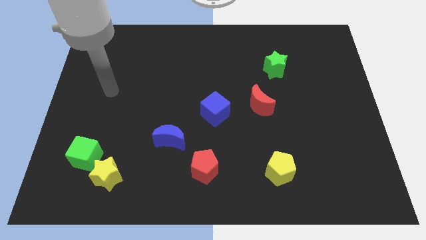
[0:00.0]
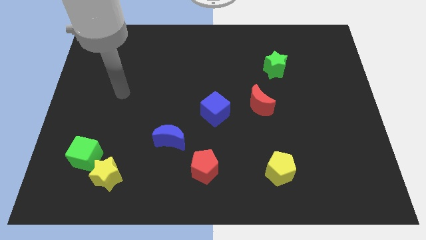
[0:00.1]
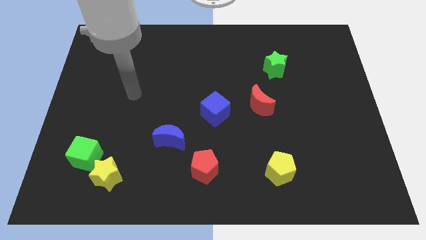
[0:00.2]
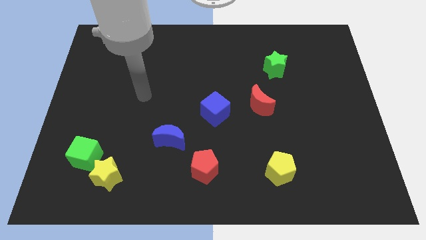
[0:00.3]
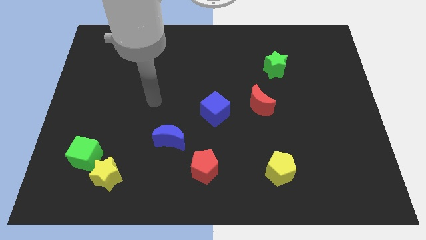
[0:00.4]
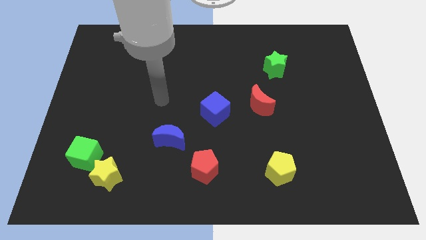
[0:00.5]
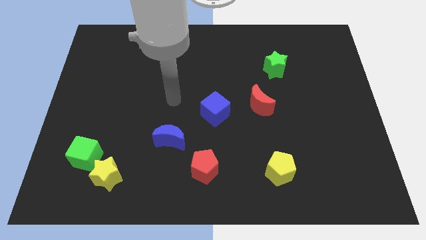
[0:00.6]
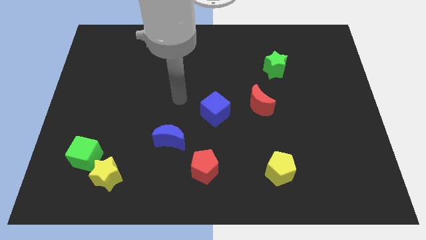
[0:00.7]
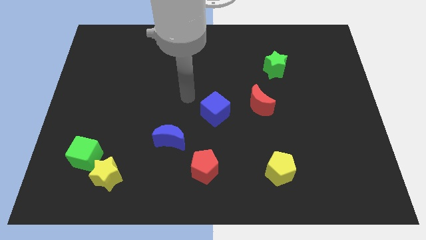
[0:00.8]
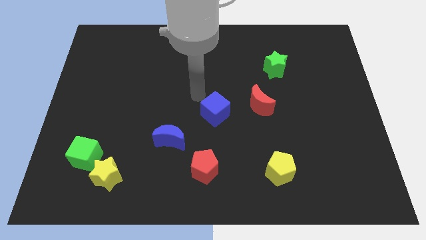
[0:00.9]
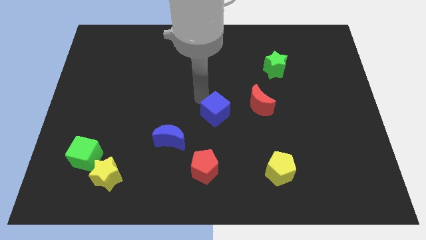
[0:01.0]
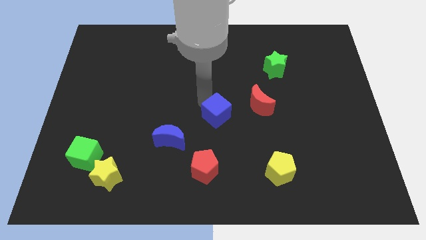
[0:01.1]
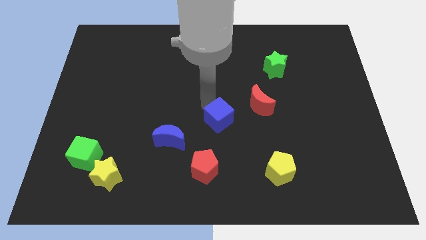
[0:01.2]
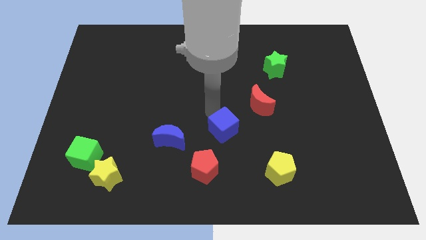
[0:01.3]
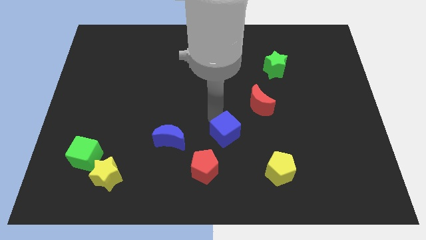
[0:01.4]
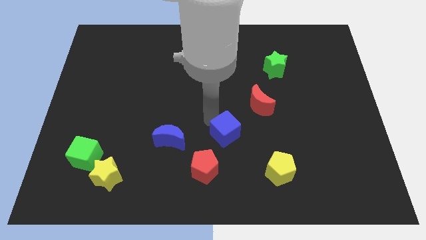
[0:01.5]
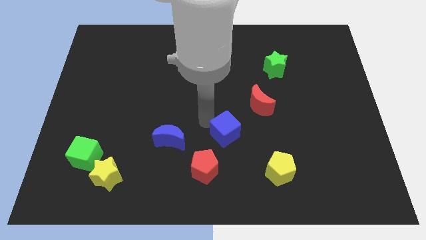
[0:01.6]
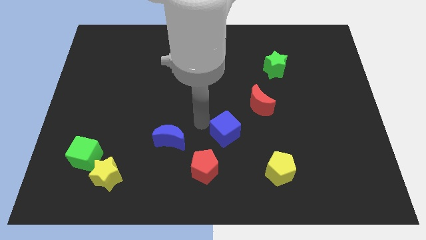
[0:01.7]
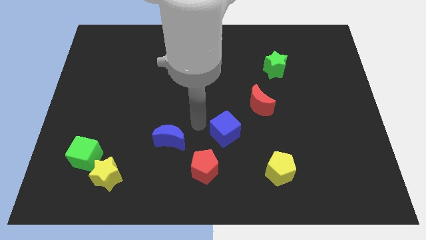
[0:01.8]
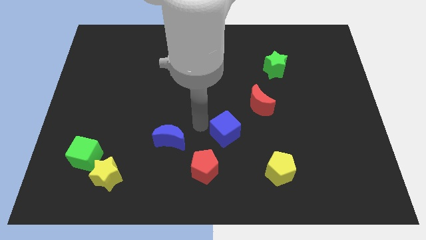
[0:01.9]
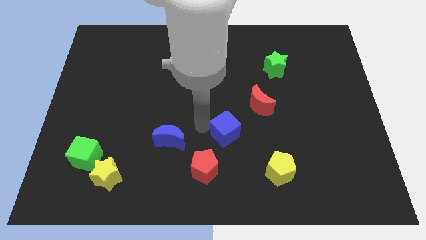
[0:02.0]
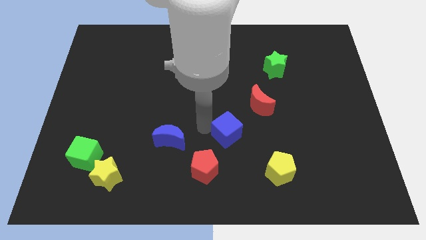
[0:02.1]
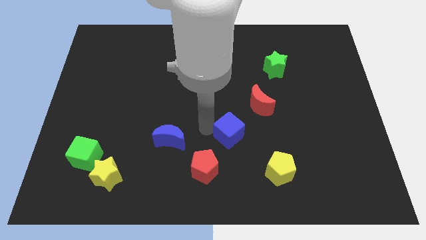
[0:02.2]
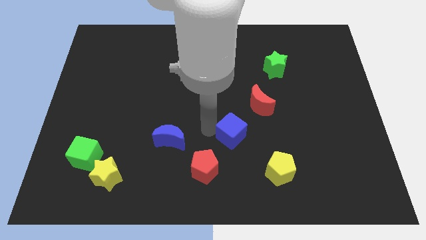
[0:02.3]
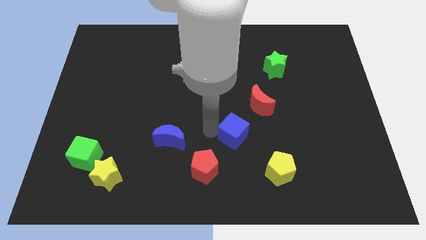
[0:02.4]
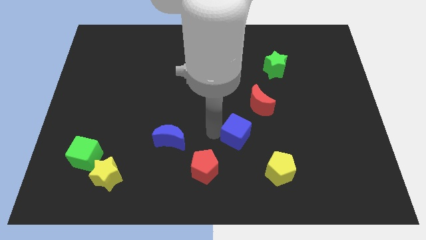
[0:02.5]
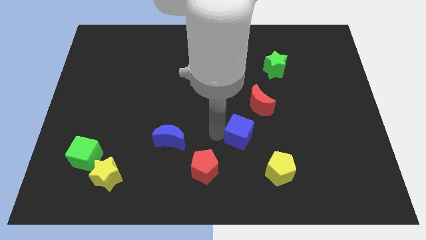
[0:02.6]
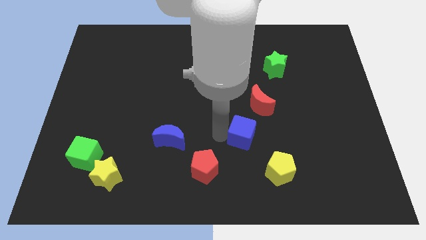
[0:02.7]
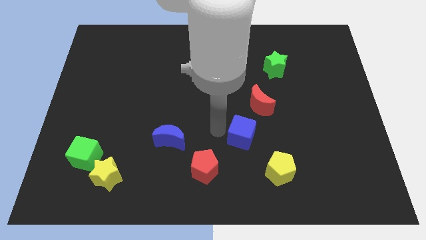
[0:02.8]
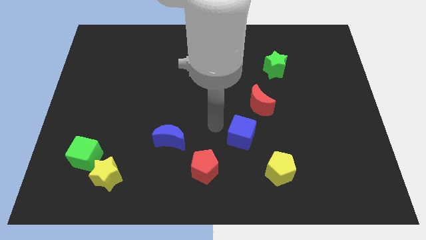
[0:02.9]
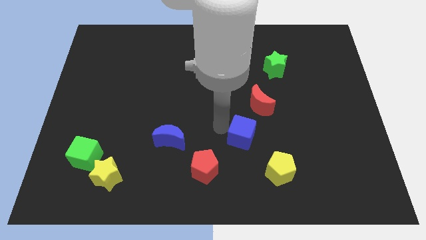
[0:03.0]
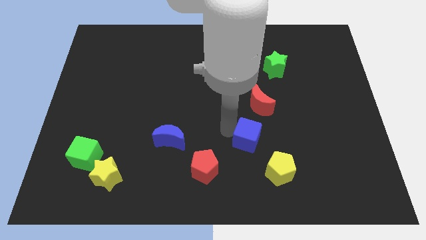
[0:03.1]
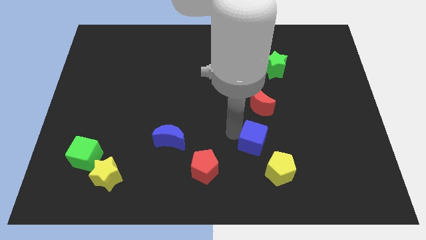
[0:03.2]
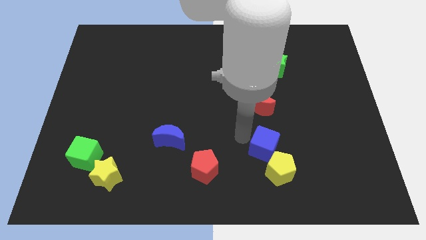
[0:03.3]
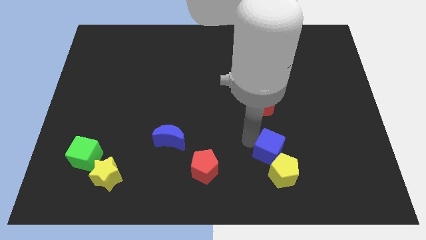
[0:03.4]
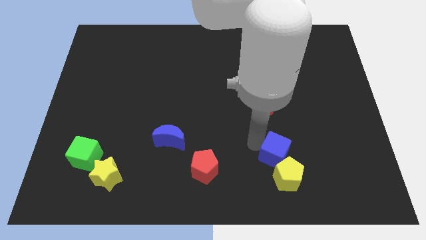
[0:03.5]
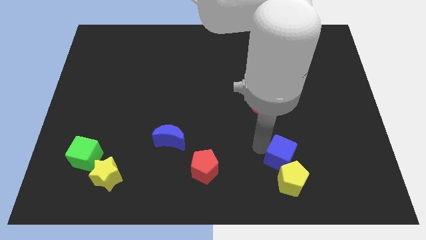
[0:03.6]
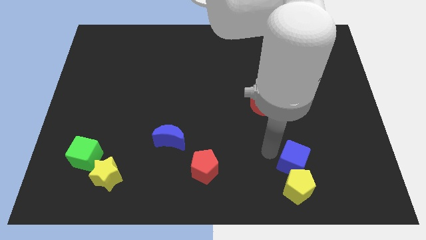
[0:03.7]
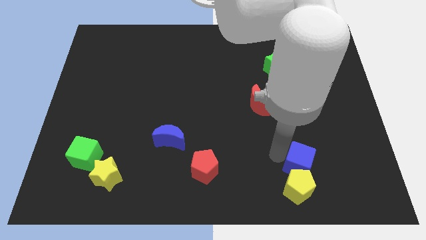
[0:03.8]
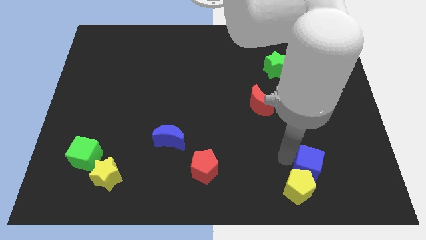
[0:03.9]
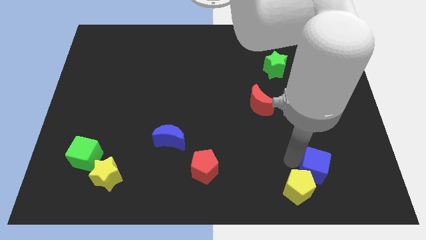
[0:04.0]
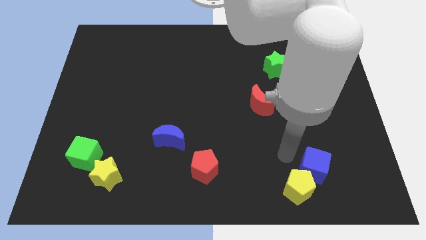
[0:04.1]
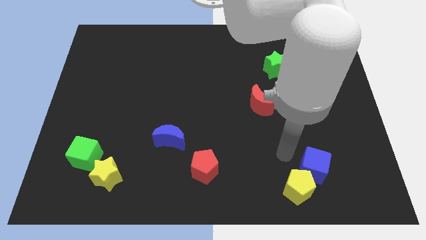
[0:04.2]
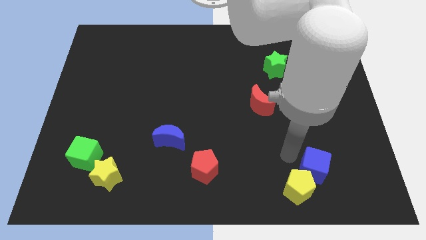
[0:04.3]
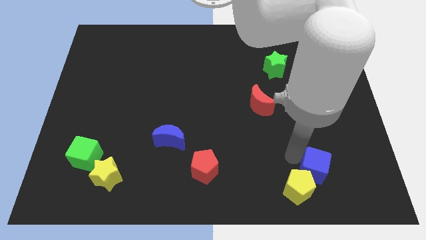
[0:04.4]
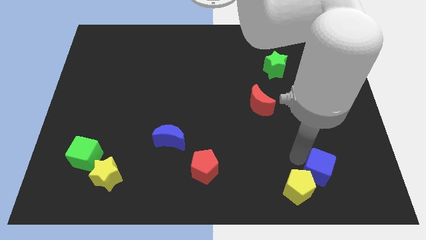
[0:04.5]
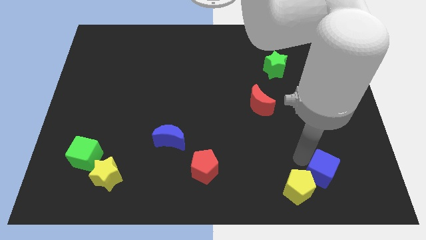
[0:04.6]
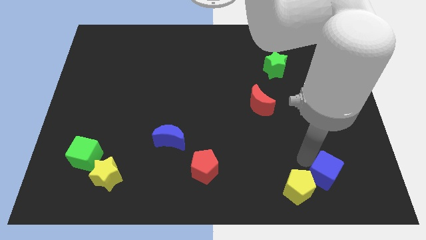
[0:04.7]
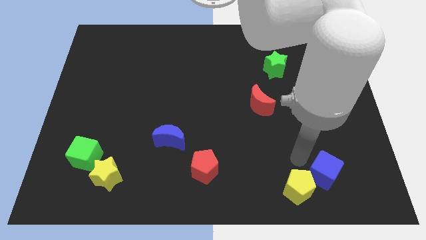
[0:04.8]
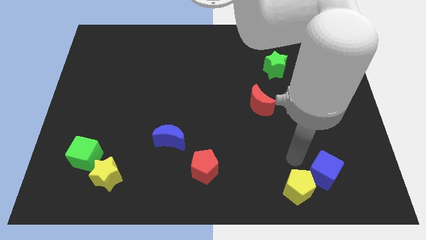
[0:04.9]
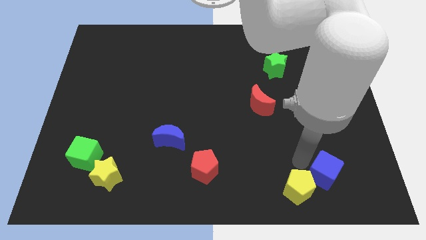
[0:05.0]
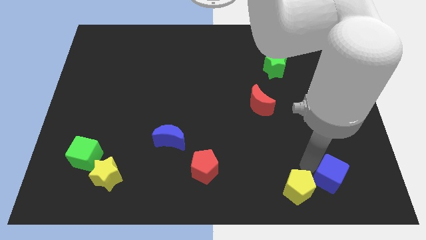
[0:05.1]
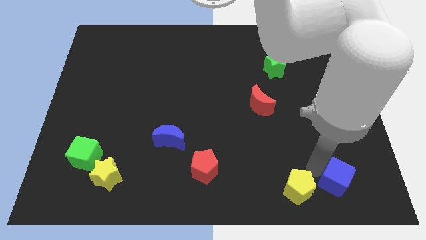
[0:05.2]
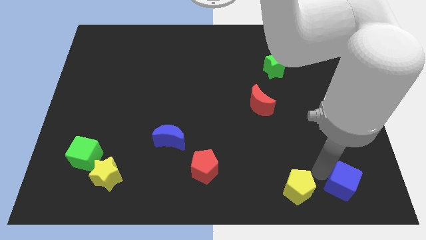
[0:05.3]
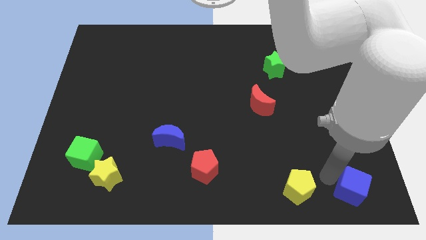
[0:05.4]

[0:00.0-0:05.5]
push the blue cube to the lower right corner

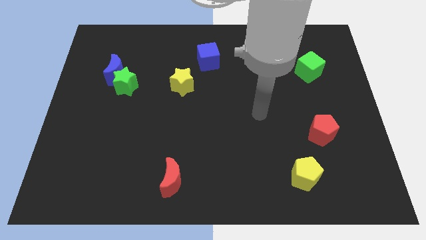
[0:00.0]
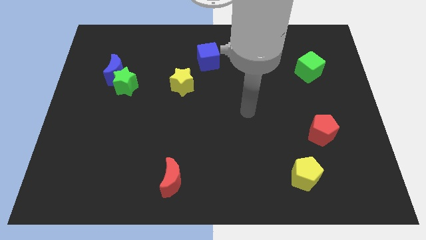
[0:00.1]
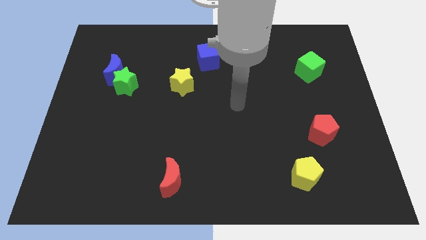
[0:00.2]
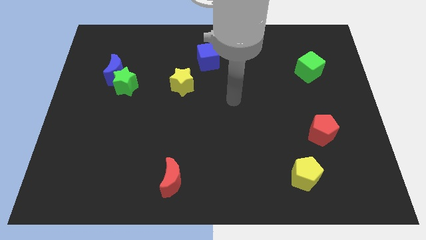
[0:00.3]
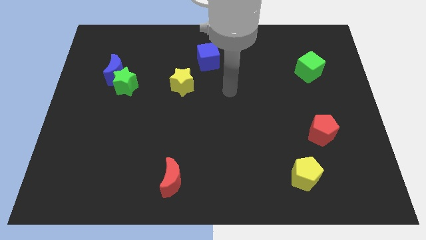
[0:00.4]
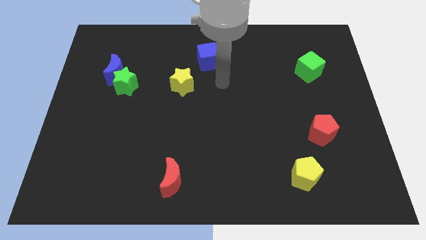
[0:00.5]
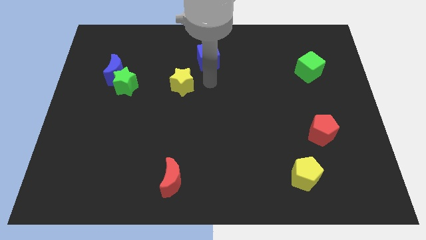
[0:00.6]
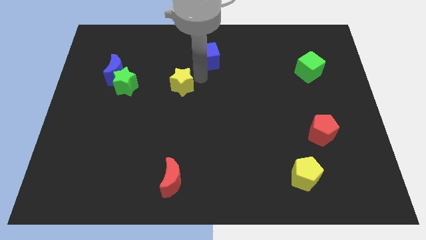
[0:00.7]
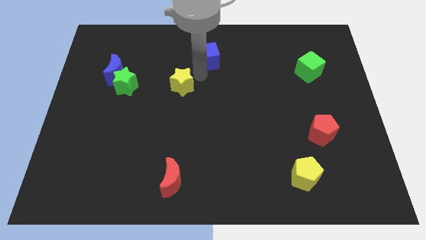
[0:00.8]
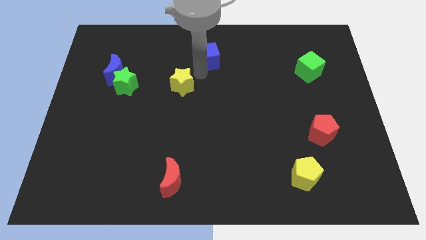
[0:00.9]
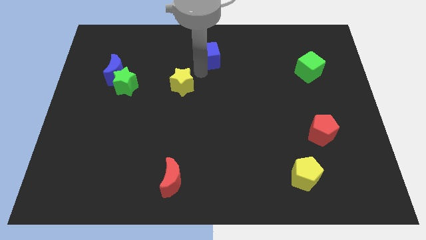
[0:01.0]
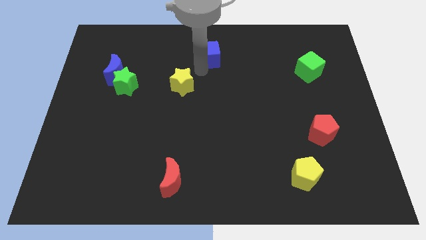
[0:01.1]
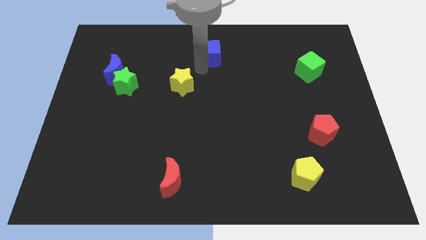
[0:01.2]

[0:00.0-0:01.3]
slide the blue cube to the top
